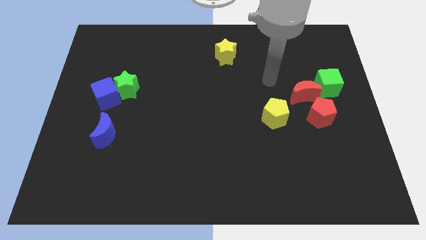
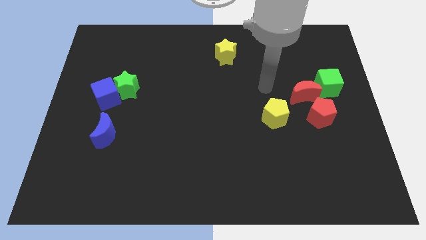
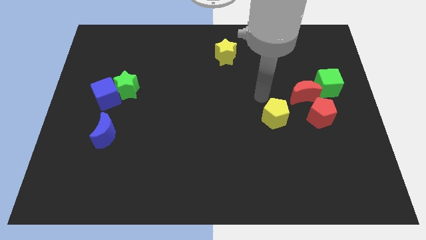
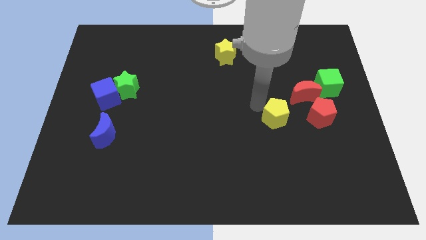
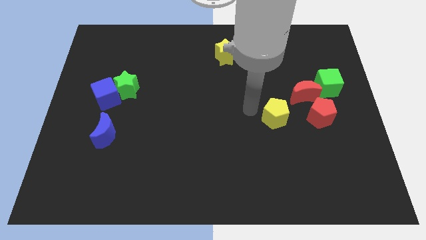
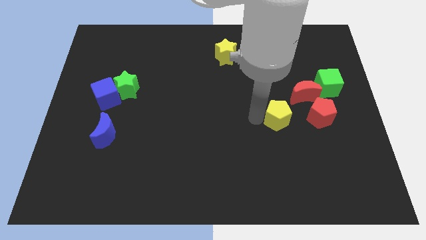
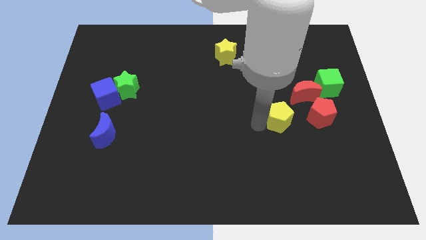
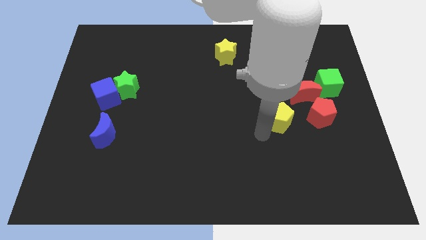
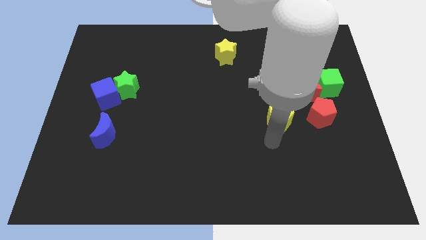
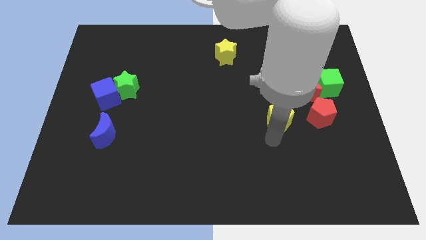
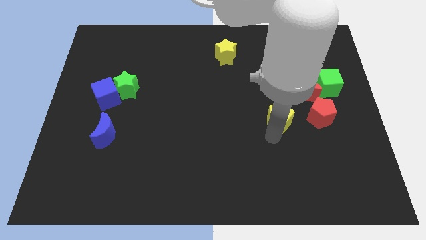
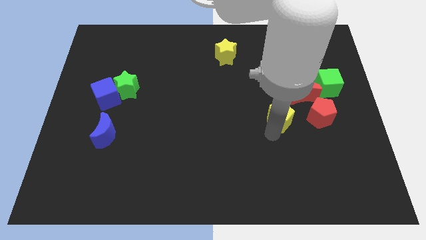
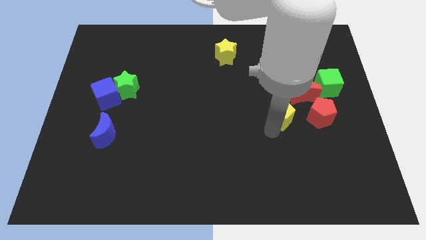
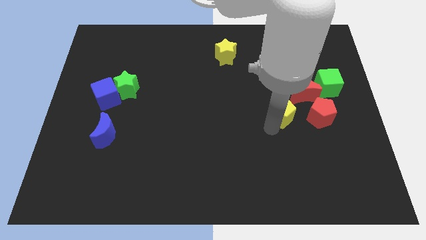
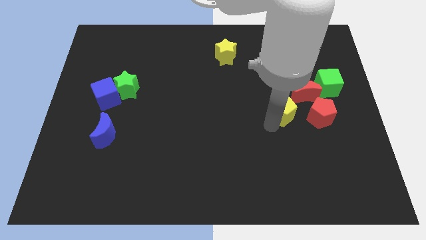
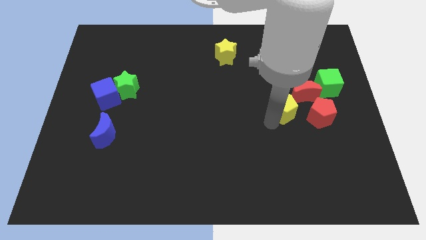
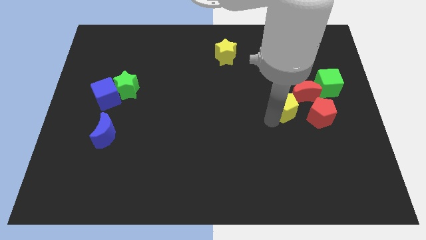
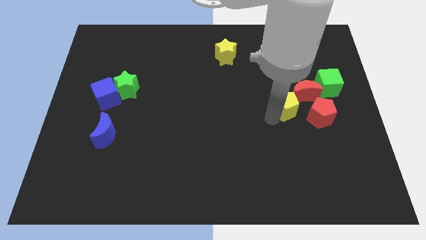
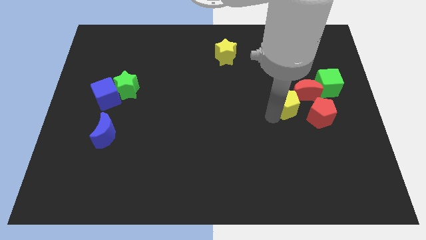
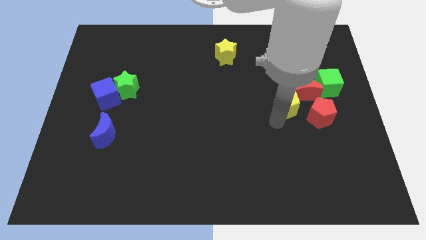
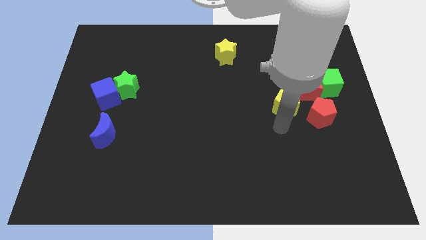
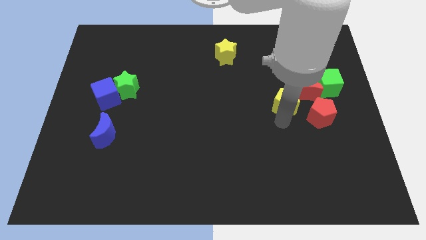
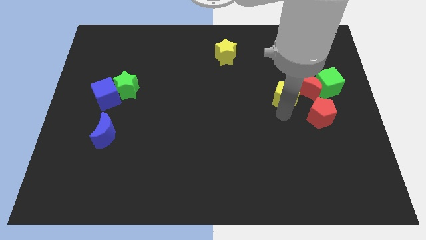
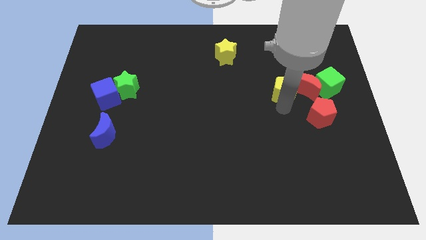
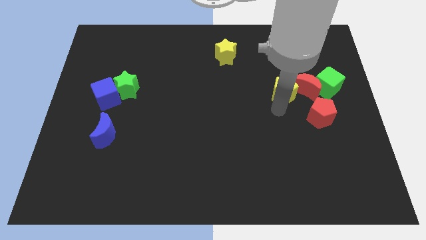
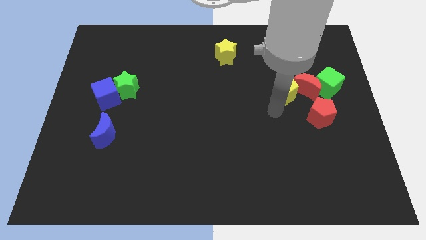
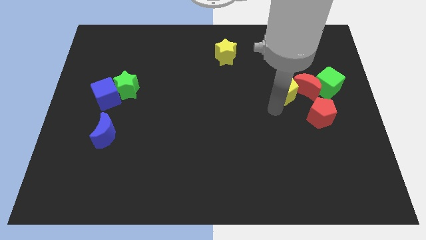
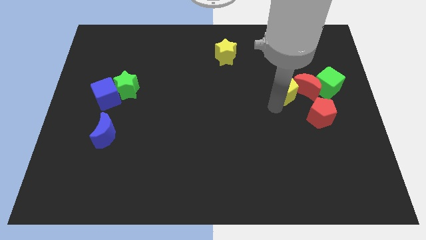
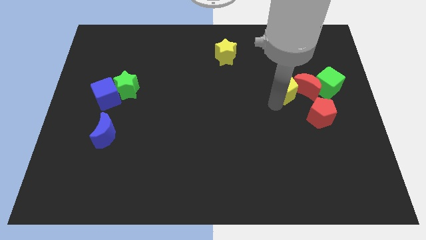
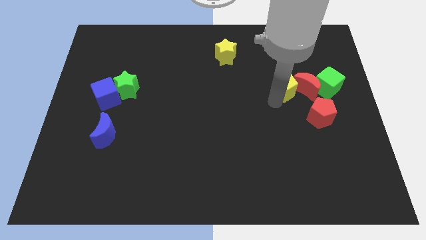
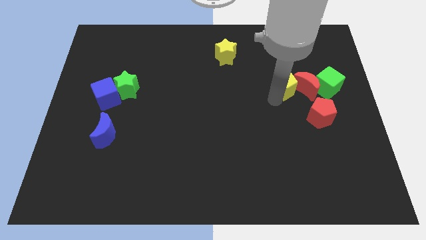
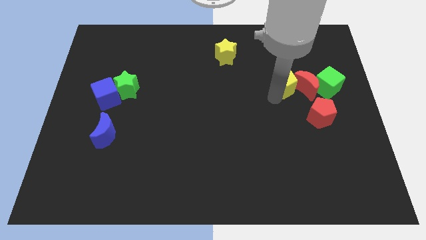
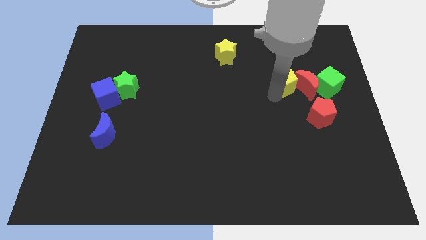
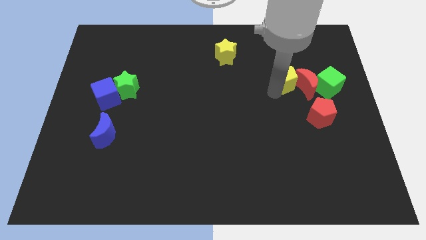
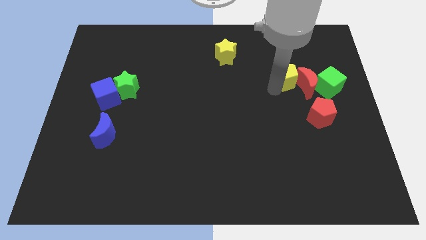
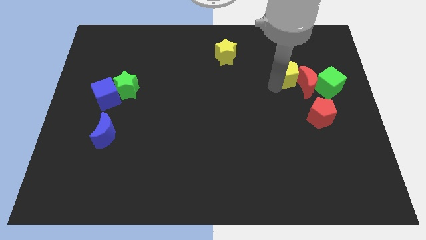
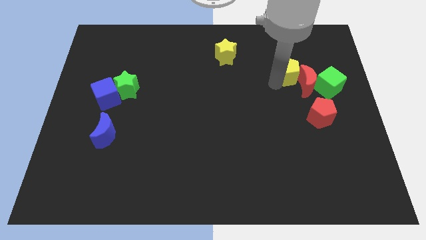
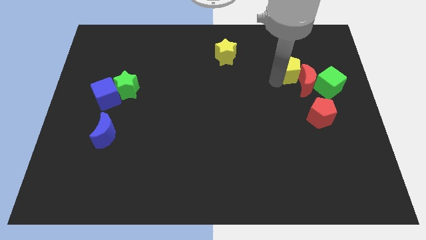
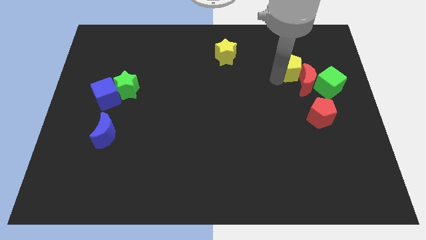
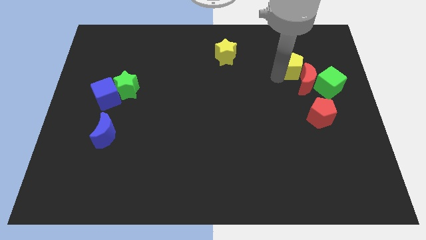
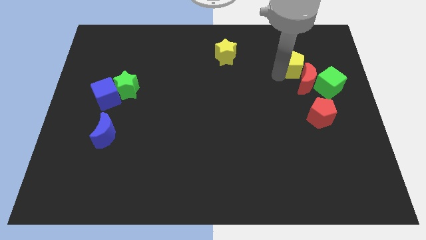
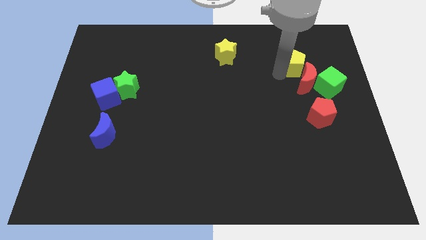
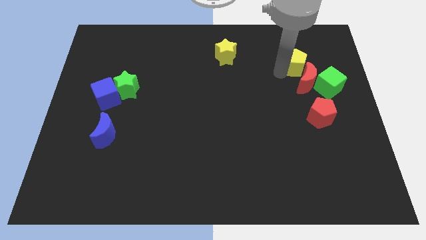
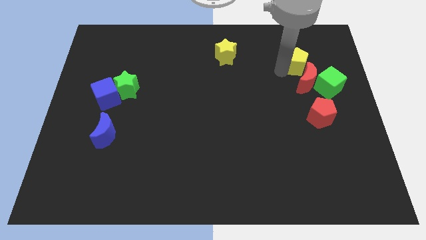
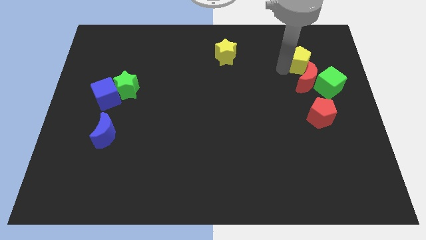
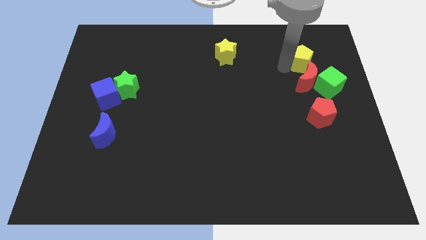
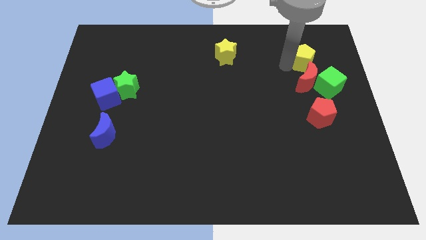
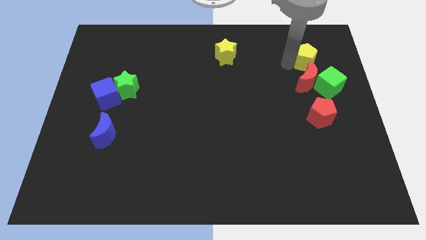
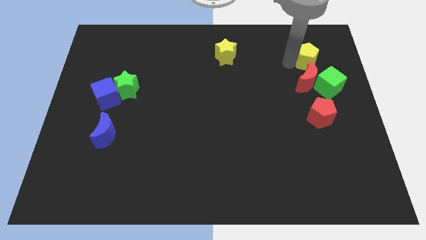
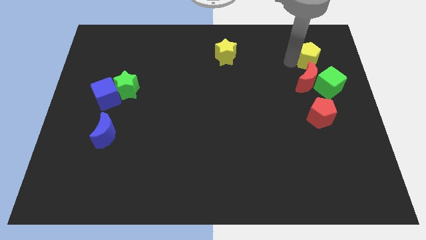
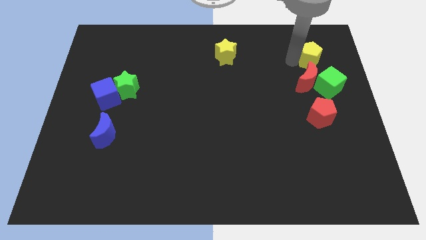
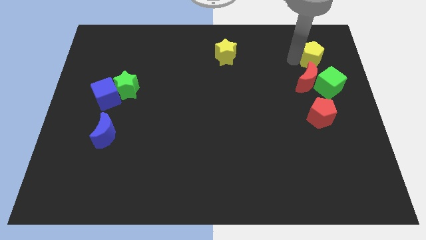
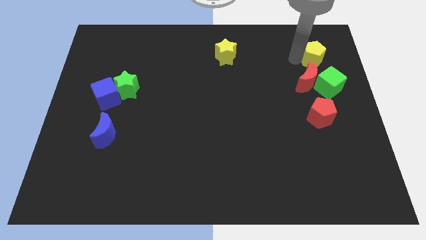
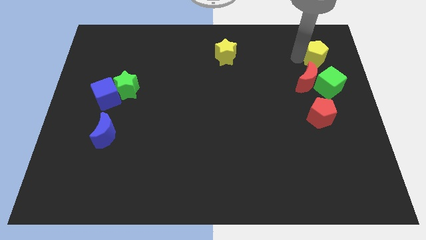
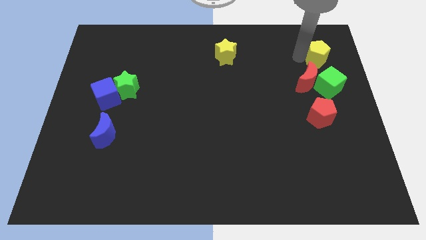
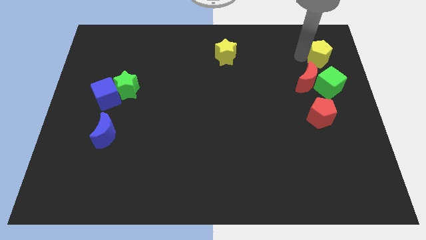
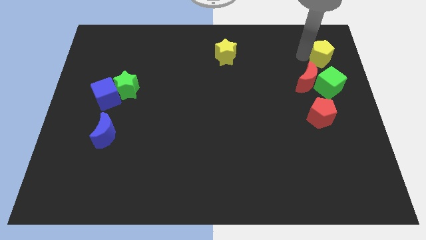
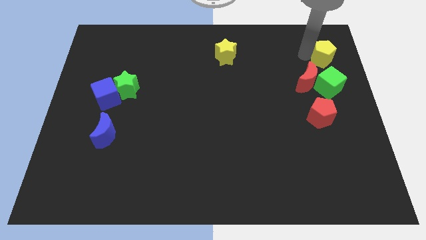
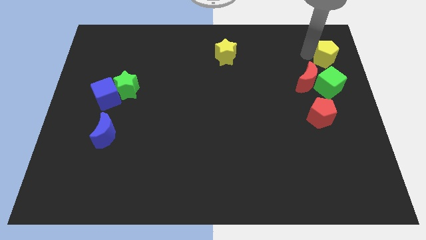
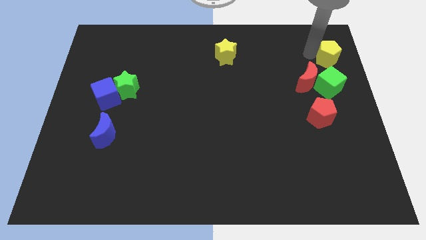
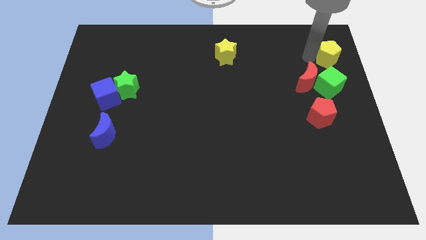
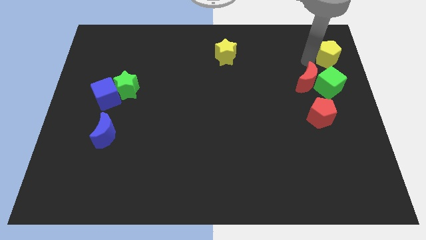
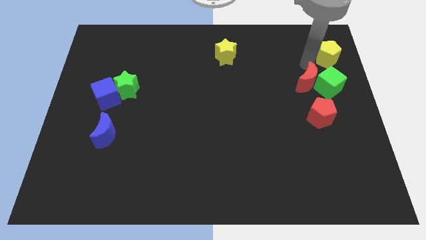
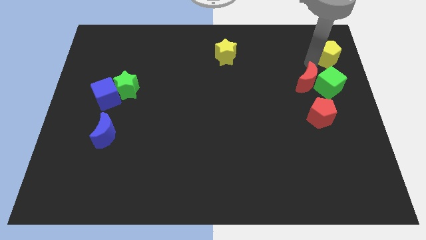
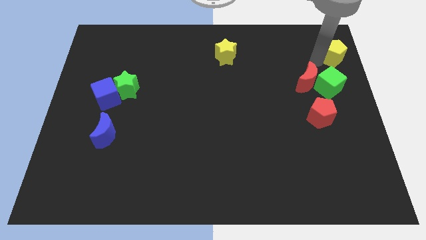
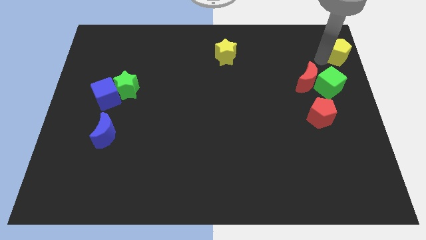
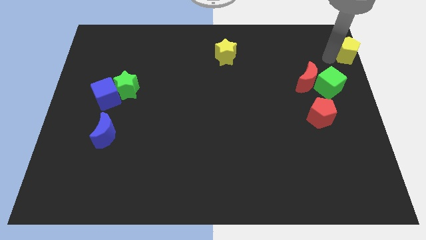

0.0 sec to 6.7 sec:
push the yellow pentagon to the top right corner
